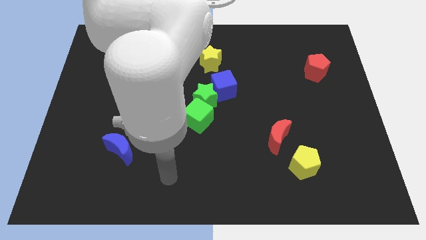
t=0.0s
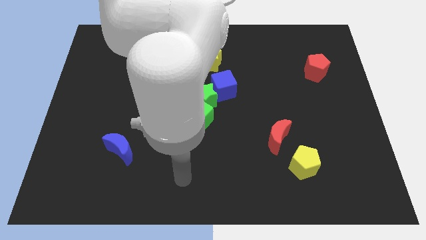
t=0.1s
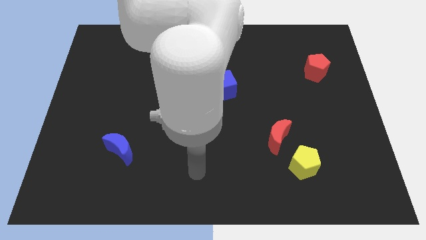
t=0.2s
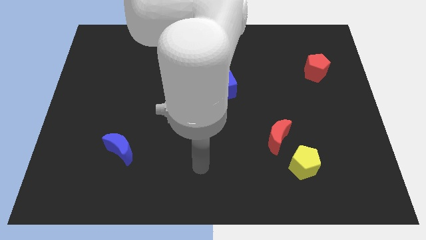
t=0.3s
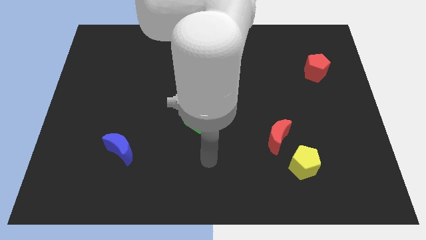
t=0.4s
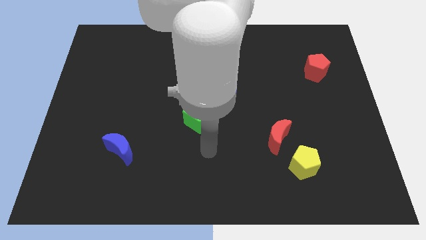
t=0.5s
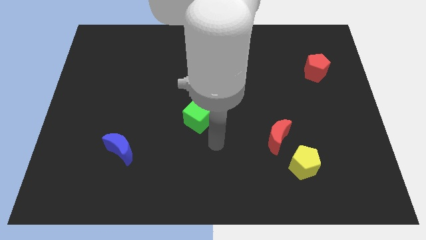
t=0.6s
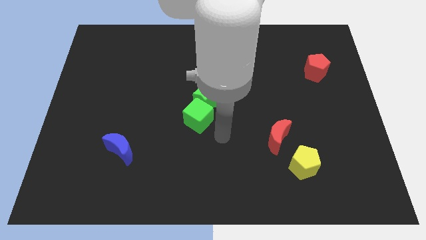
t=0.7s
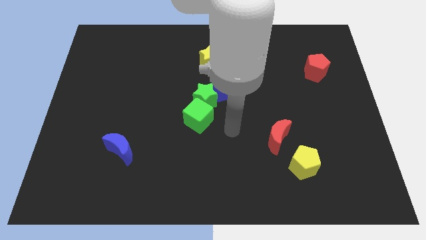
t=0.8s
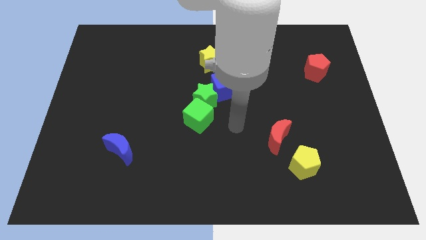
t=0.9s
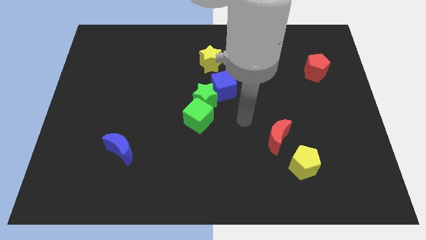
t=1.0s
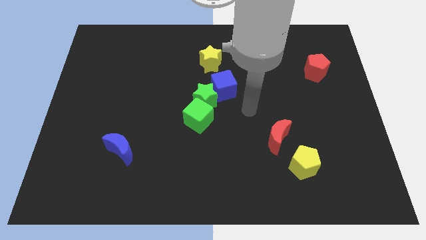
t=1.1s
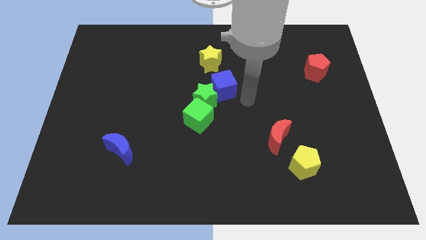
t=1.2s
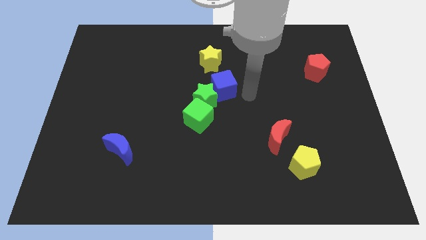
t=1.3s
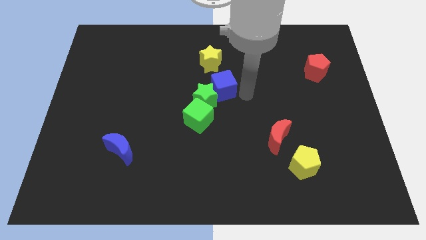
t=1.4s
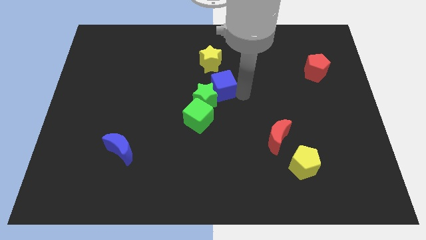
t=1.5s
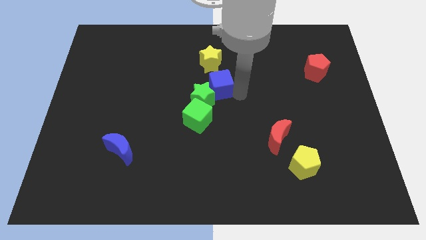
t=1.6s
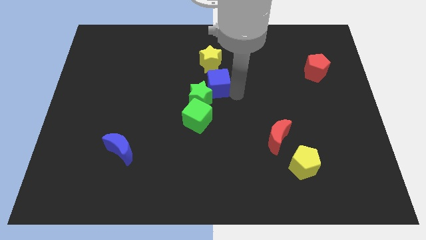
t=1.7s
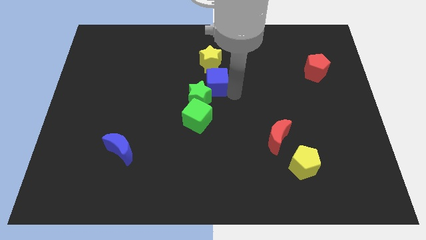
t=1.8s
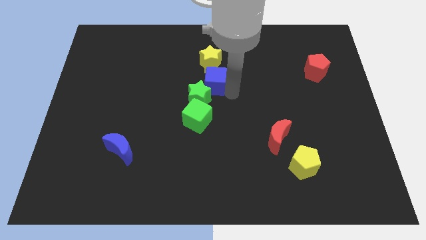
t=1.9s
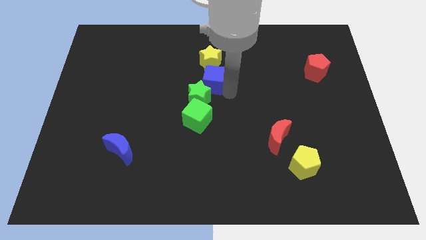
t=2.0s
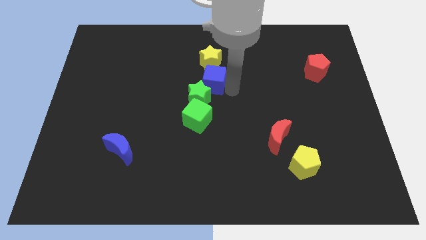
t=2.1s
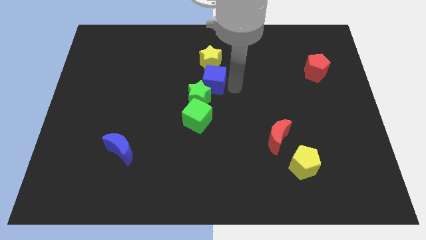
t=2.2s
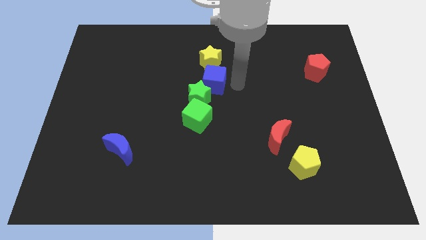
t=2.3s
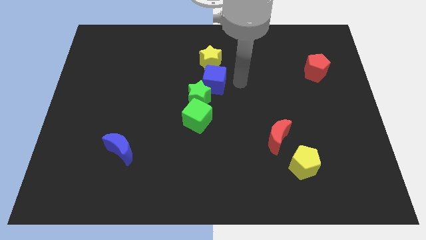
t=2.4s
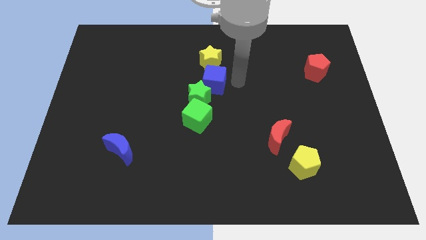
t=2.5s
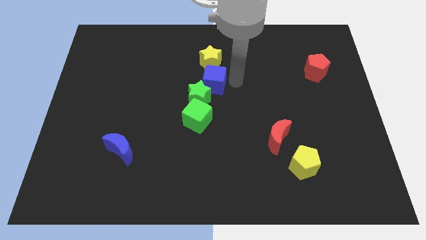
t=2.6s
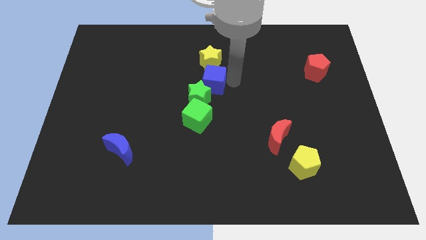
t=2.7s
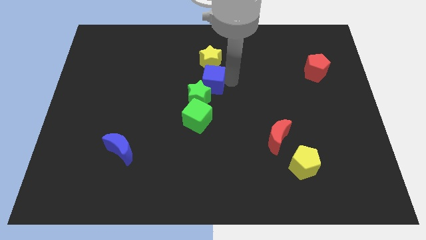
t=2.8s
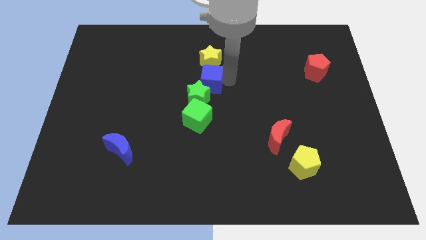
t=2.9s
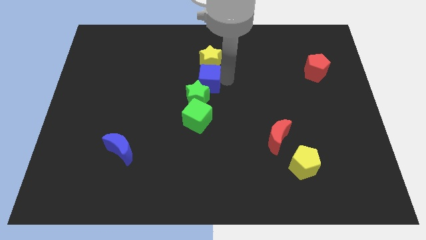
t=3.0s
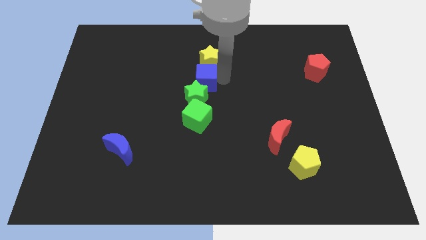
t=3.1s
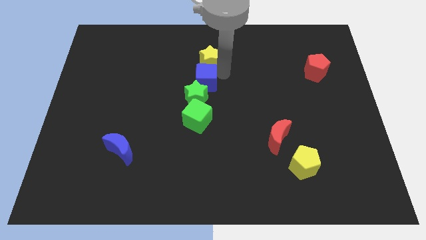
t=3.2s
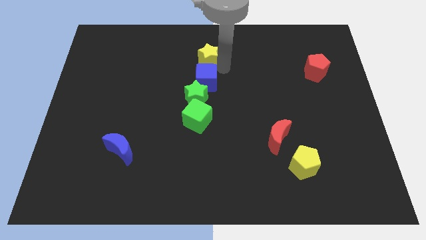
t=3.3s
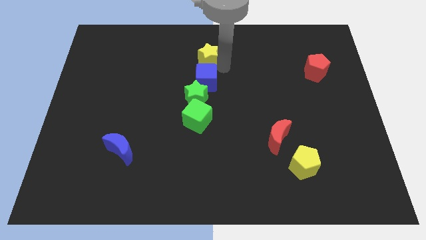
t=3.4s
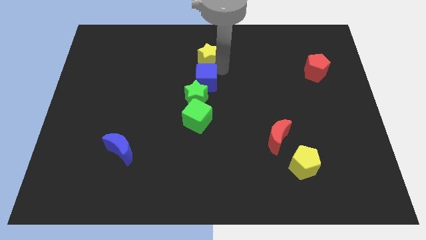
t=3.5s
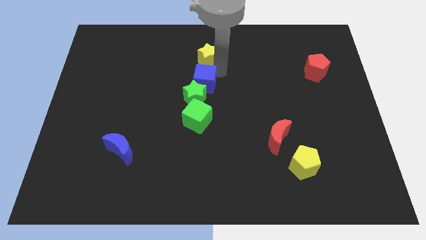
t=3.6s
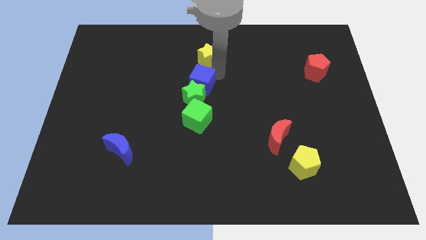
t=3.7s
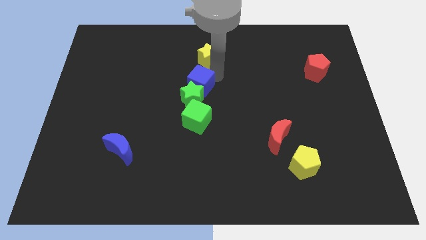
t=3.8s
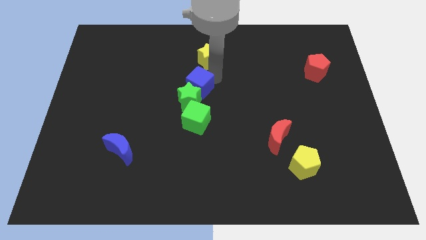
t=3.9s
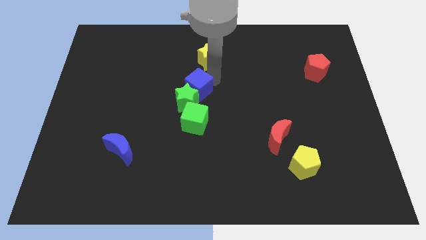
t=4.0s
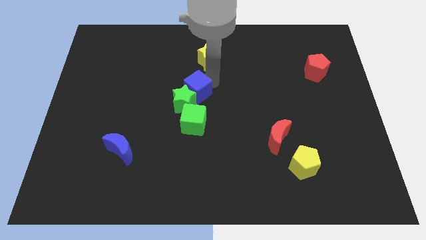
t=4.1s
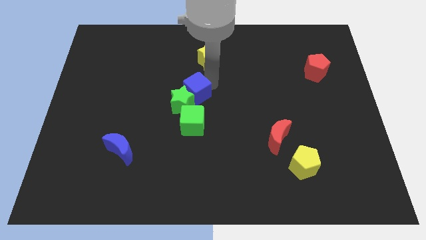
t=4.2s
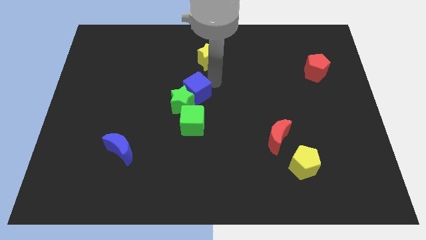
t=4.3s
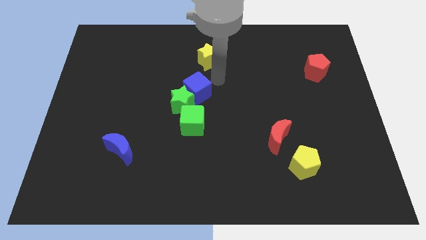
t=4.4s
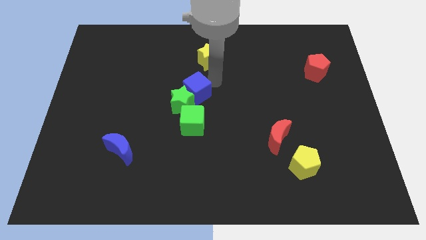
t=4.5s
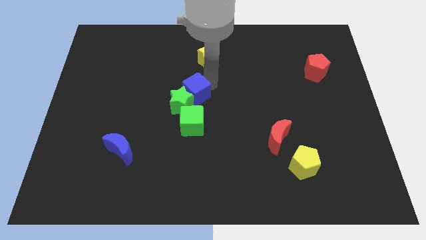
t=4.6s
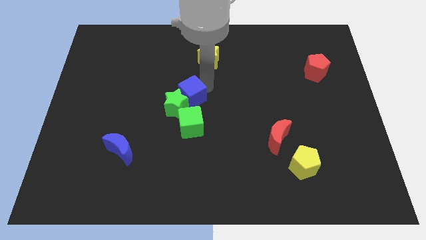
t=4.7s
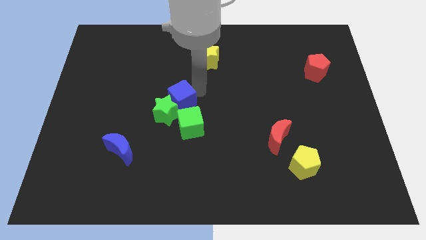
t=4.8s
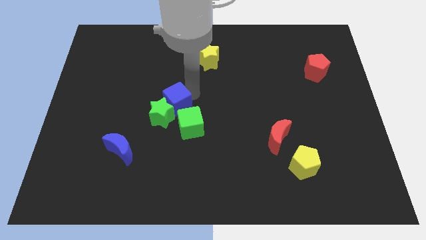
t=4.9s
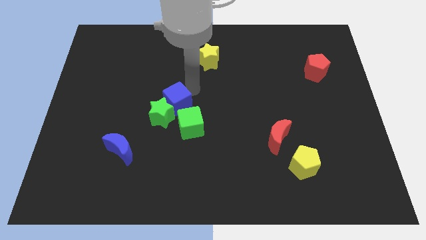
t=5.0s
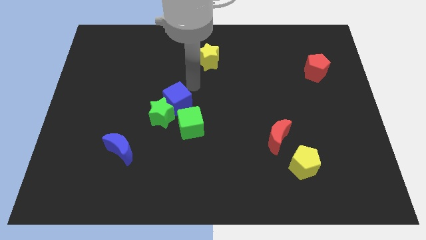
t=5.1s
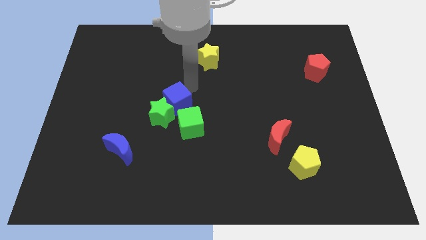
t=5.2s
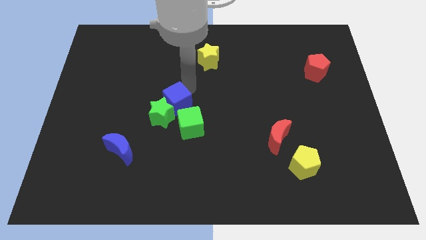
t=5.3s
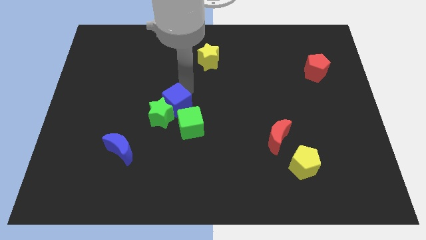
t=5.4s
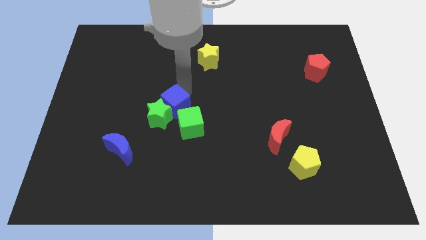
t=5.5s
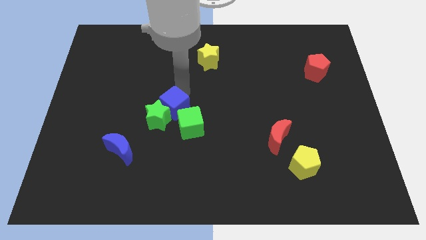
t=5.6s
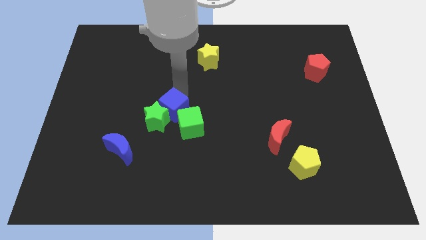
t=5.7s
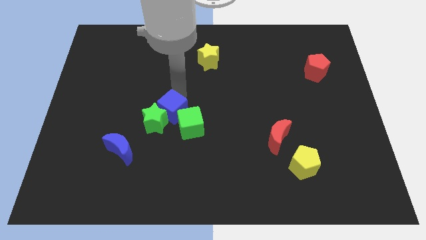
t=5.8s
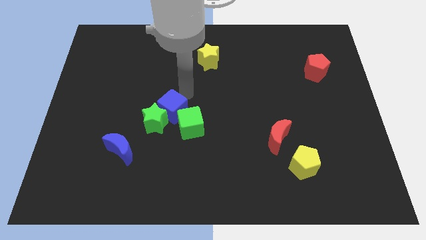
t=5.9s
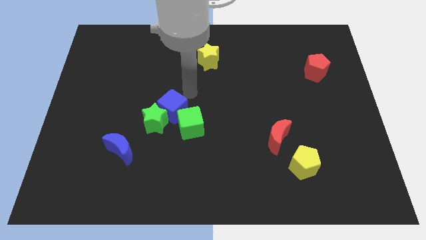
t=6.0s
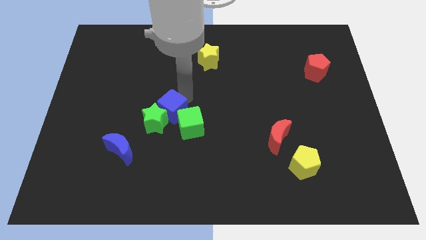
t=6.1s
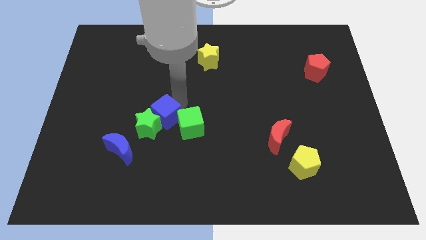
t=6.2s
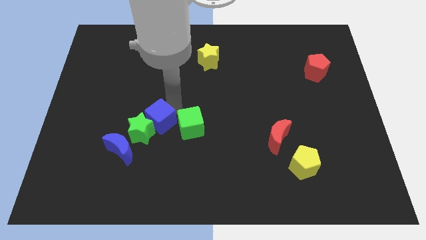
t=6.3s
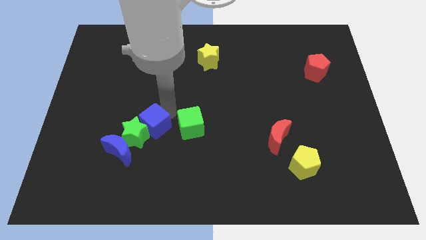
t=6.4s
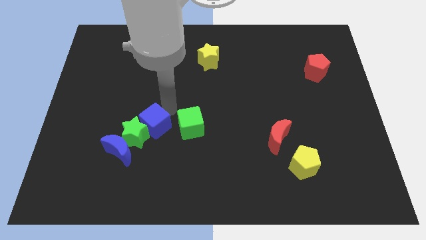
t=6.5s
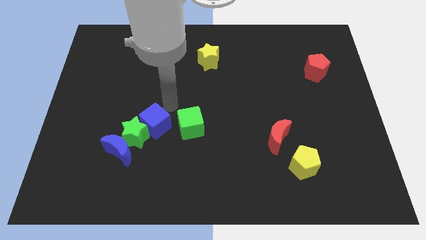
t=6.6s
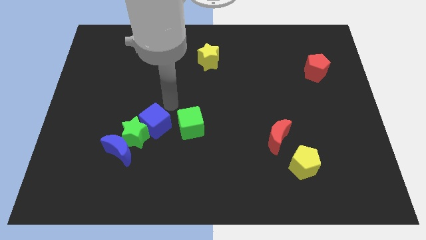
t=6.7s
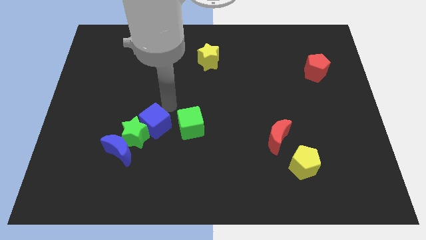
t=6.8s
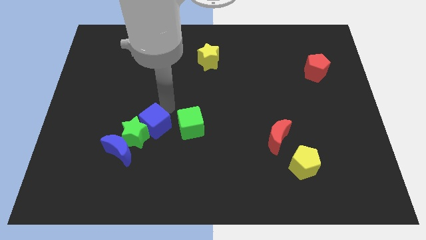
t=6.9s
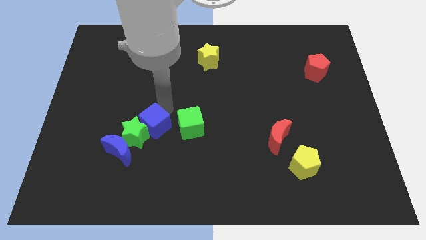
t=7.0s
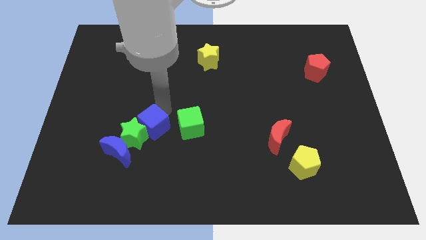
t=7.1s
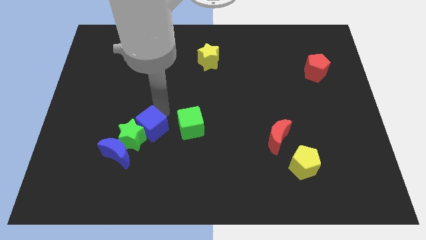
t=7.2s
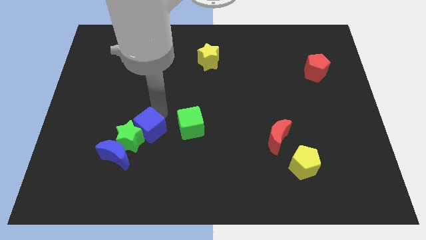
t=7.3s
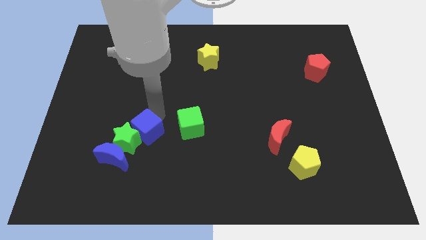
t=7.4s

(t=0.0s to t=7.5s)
push the blue cube downwards and left diagonally
